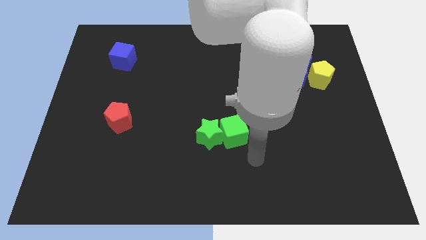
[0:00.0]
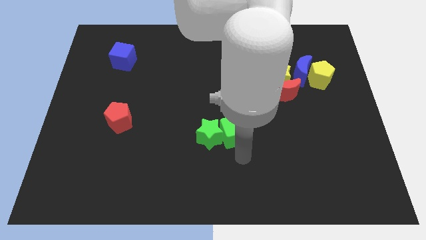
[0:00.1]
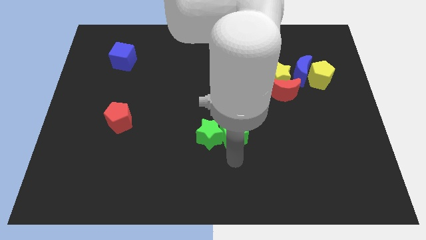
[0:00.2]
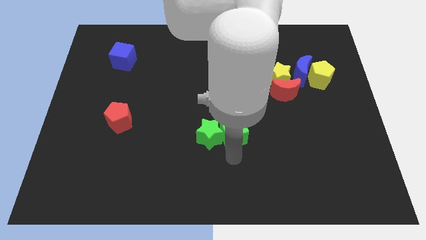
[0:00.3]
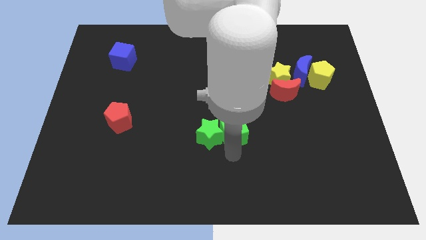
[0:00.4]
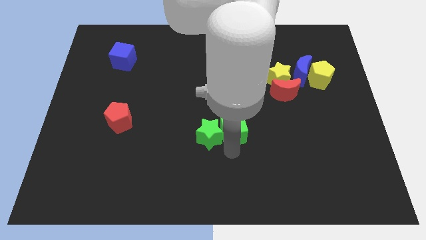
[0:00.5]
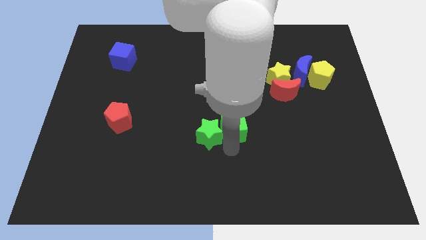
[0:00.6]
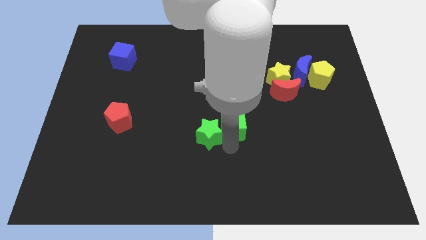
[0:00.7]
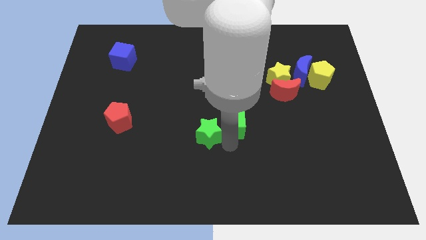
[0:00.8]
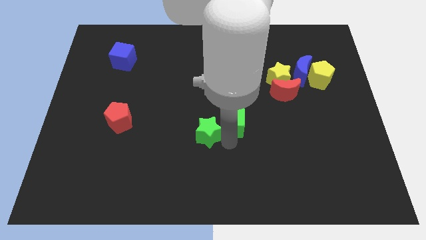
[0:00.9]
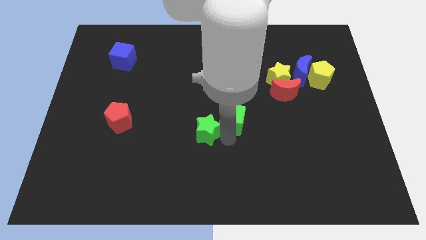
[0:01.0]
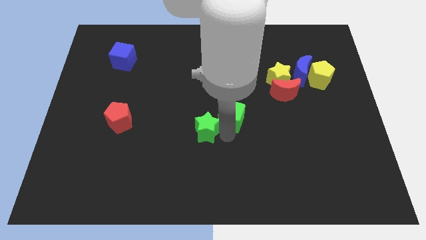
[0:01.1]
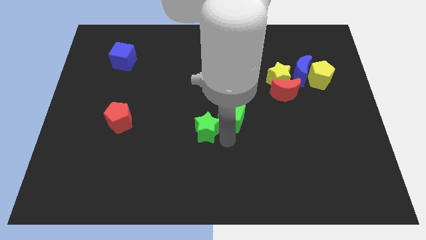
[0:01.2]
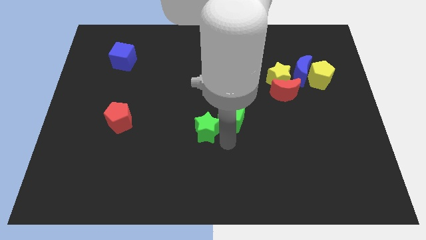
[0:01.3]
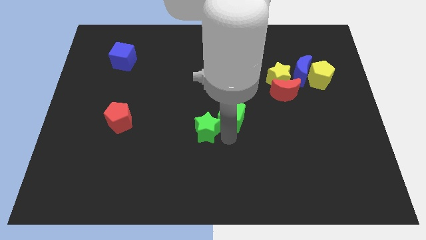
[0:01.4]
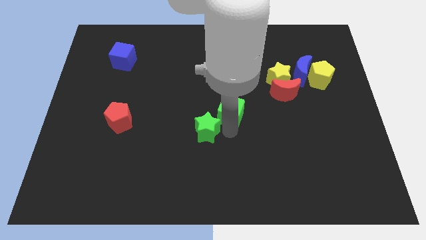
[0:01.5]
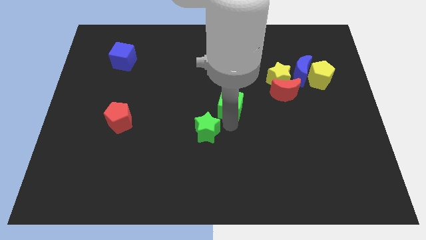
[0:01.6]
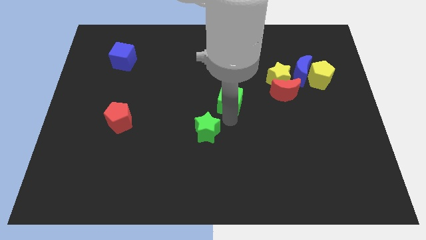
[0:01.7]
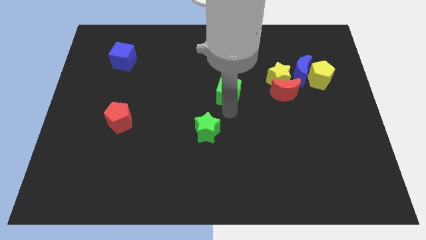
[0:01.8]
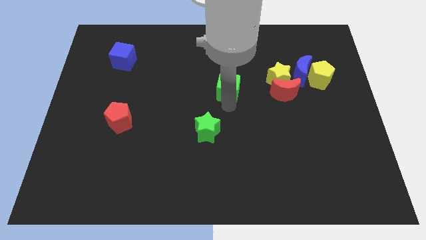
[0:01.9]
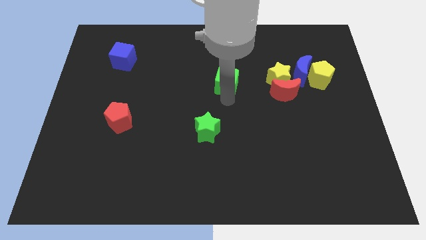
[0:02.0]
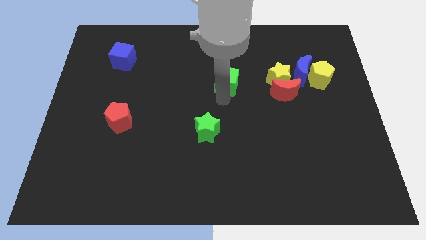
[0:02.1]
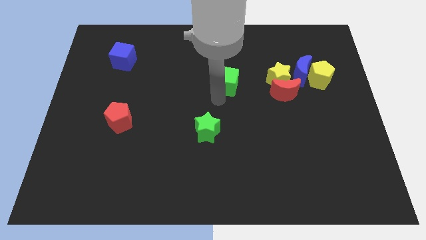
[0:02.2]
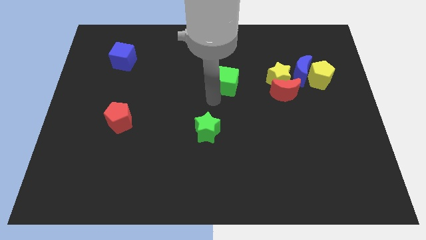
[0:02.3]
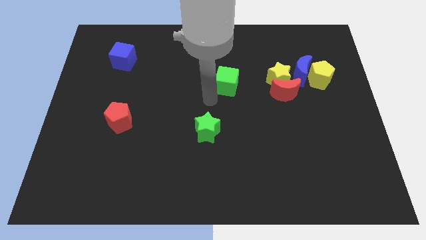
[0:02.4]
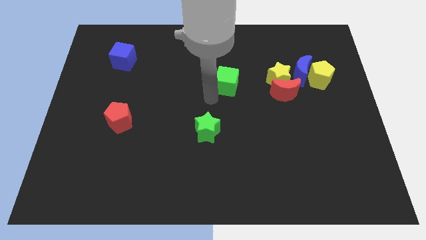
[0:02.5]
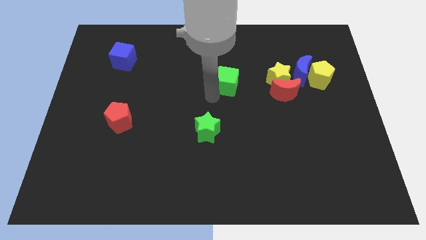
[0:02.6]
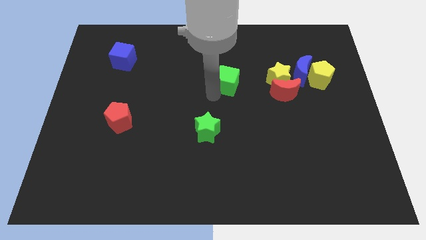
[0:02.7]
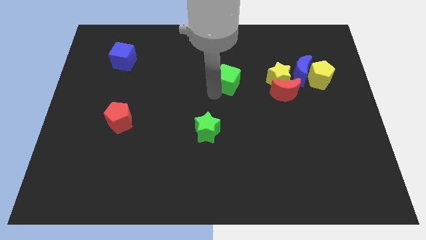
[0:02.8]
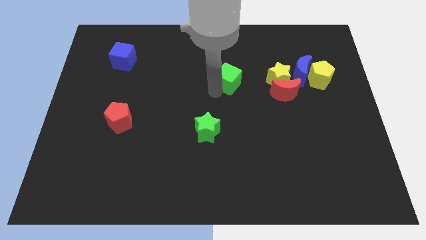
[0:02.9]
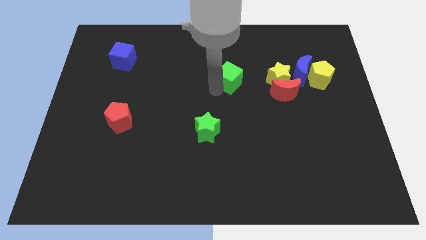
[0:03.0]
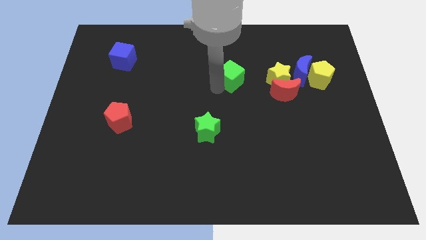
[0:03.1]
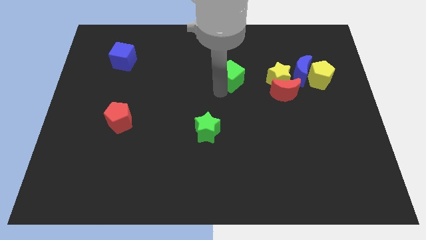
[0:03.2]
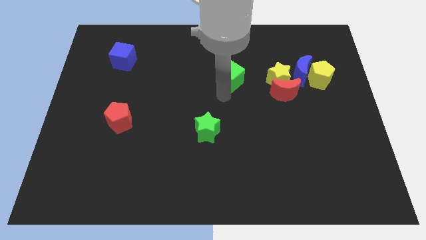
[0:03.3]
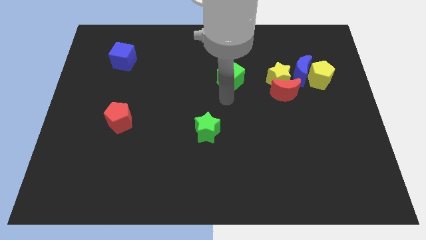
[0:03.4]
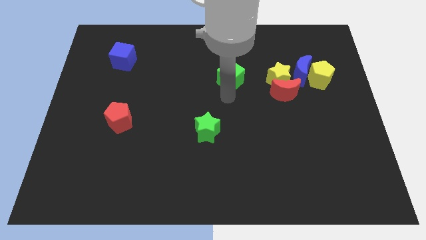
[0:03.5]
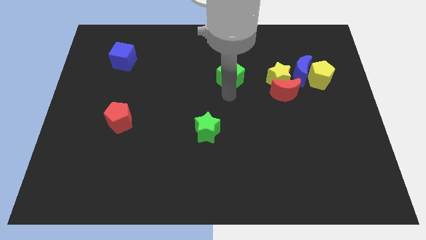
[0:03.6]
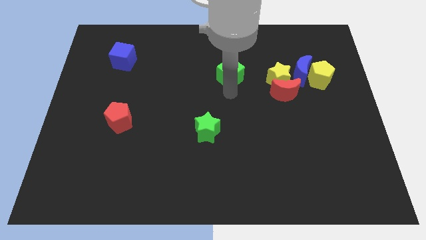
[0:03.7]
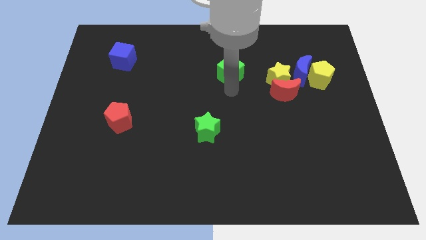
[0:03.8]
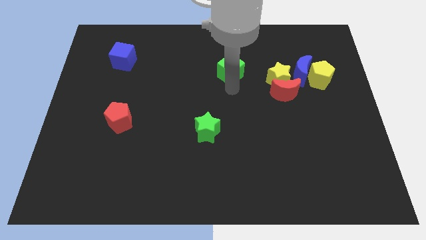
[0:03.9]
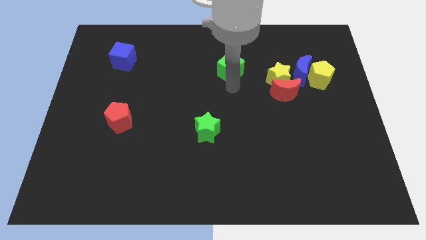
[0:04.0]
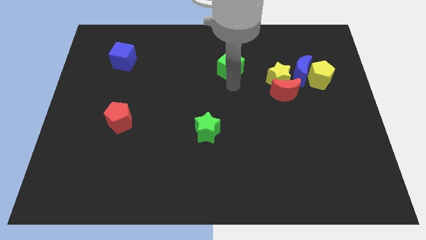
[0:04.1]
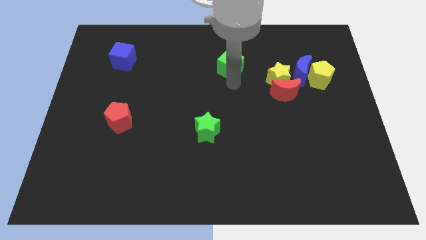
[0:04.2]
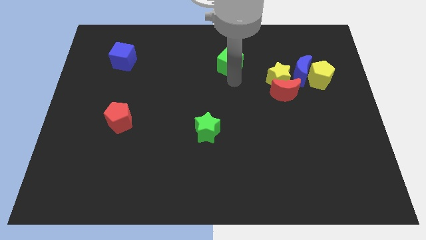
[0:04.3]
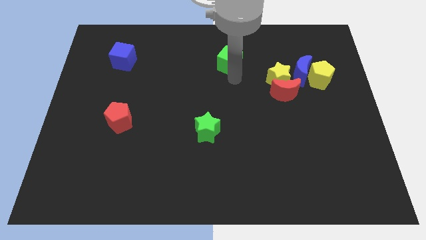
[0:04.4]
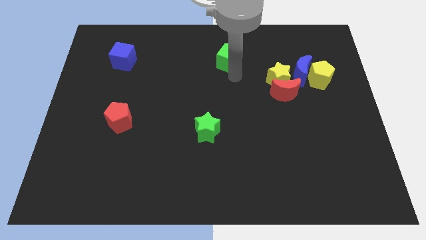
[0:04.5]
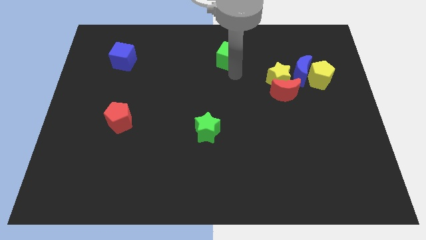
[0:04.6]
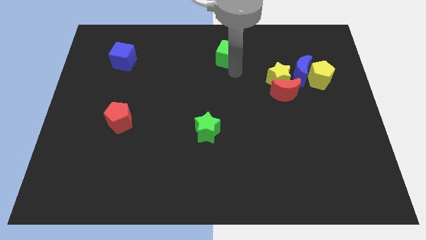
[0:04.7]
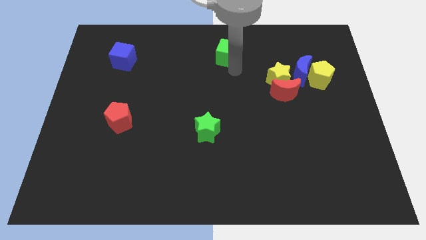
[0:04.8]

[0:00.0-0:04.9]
slide the green cube to the towards your base
